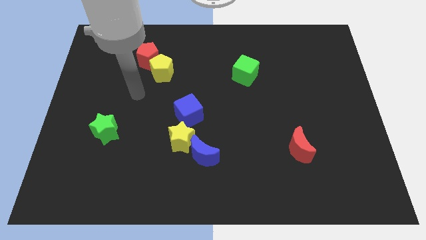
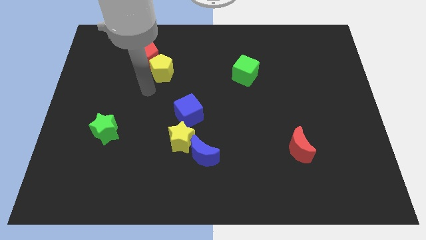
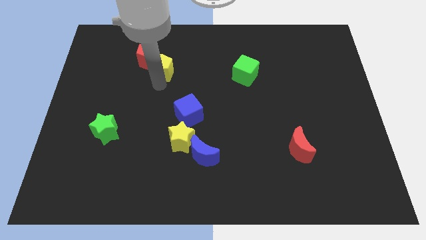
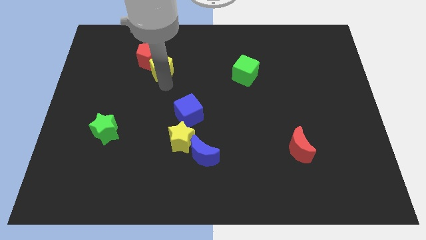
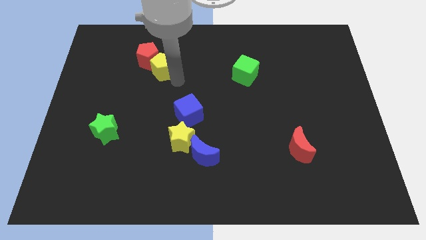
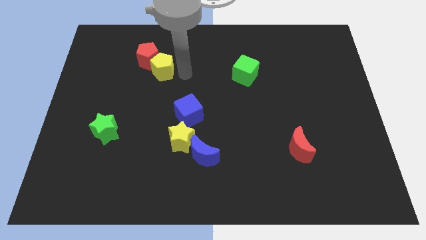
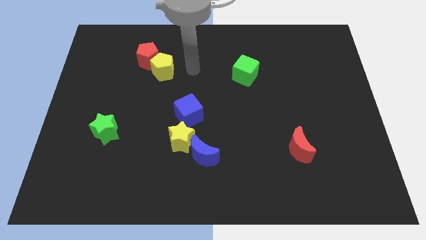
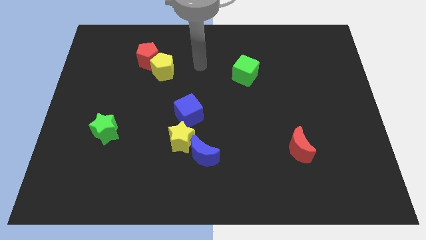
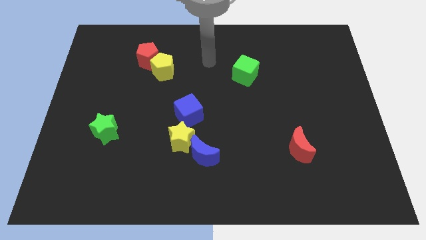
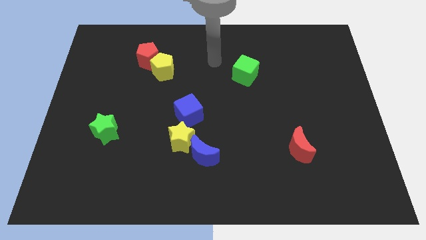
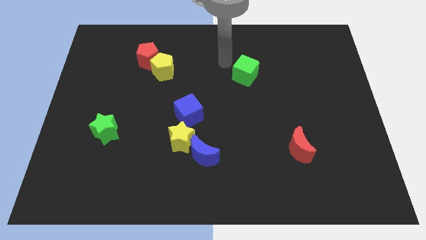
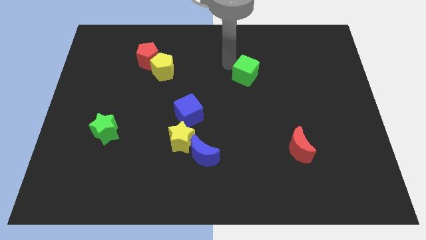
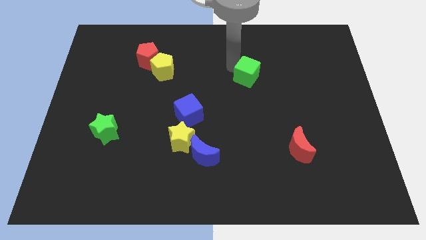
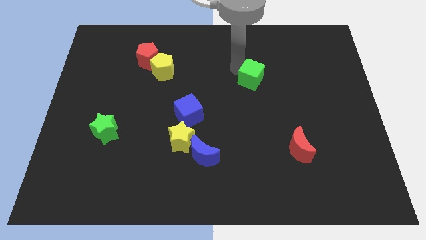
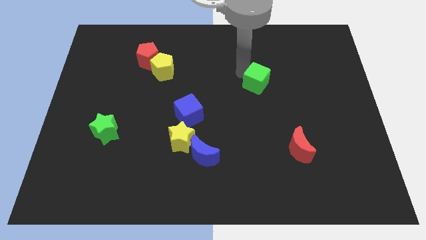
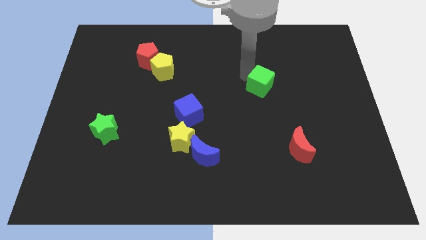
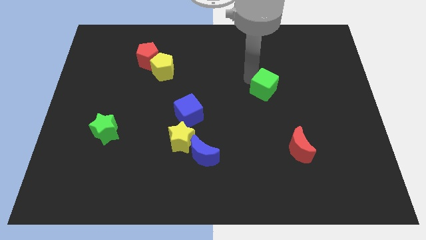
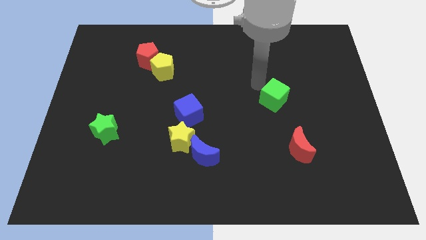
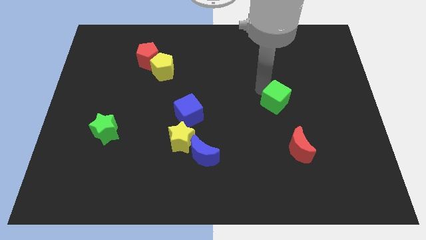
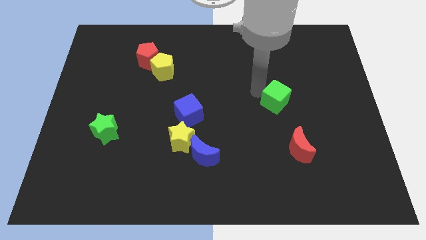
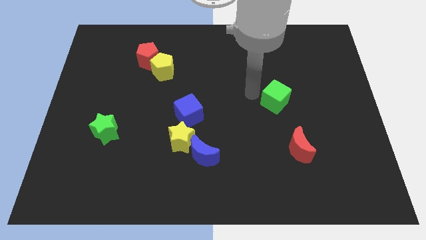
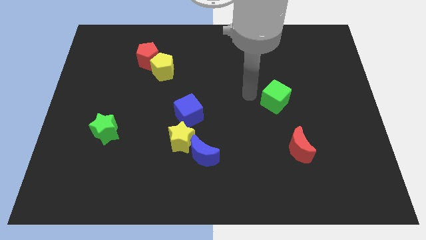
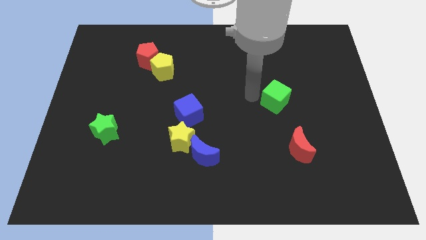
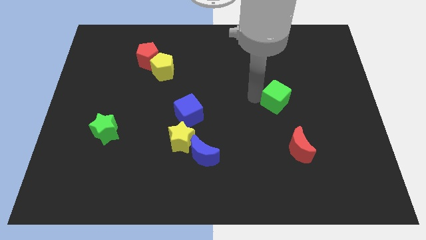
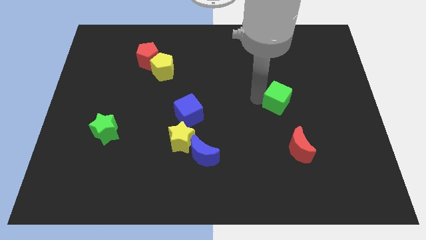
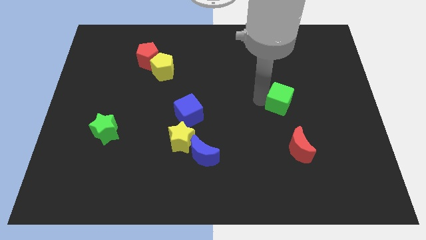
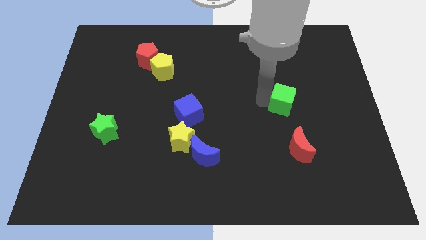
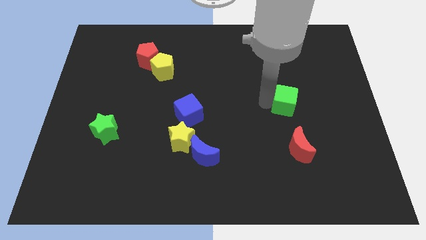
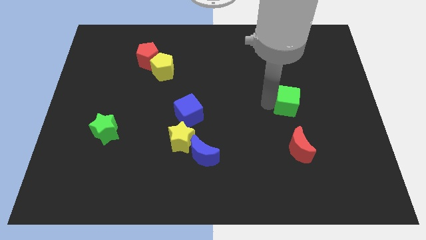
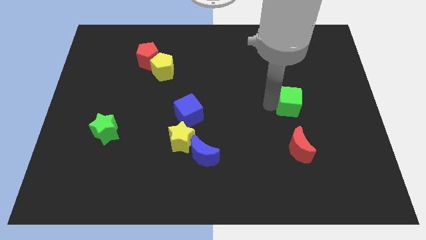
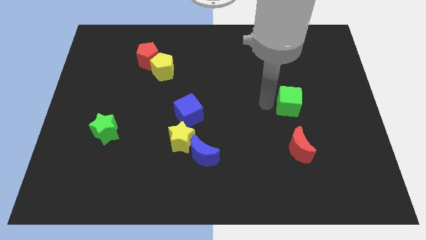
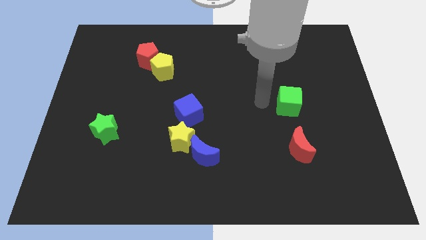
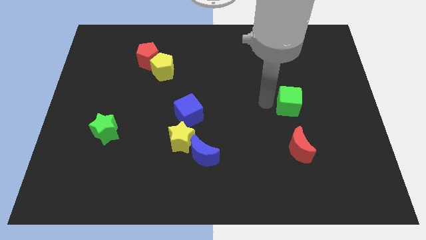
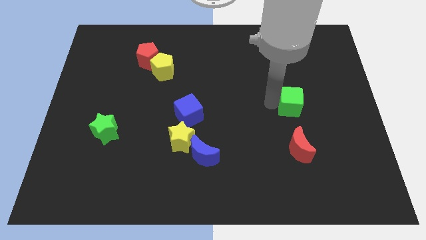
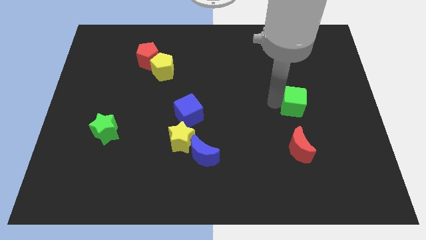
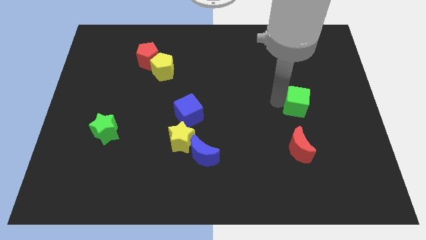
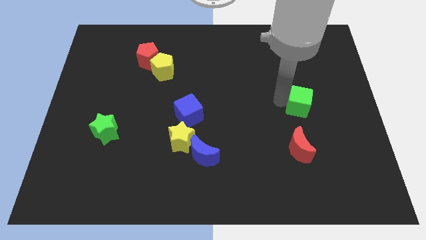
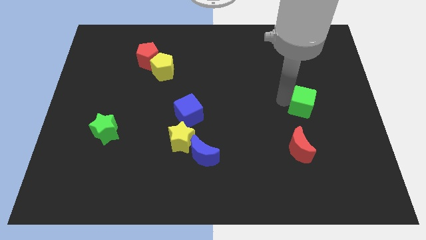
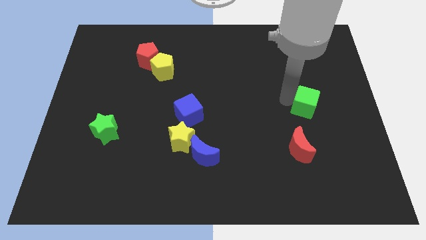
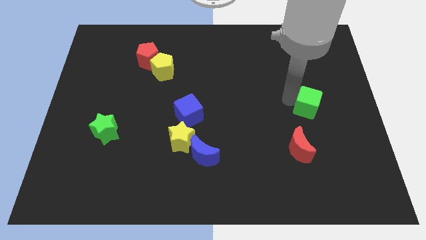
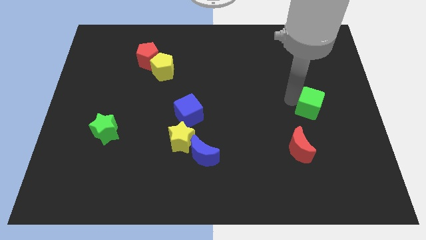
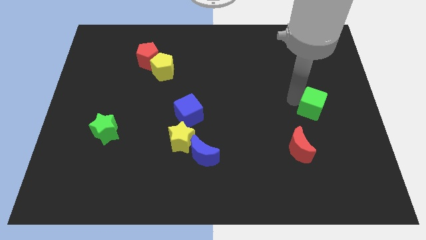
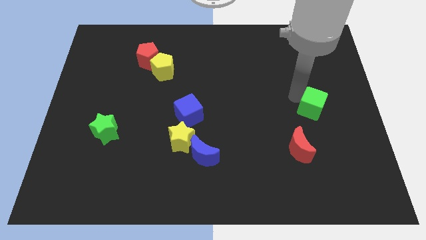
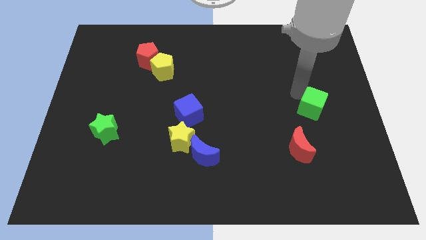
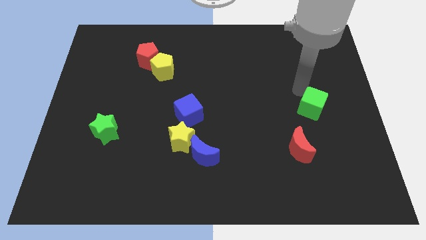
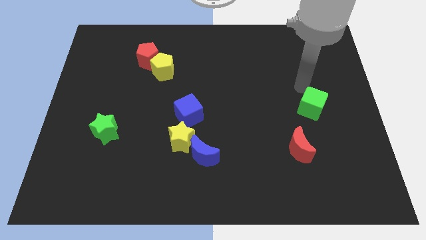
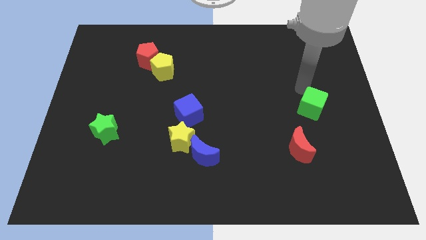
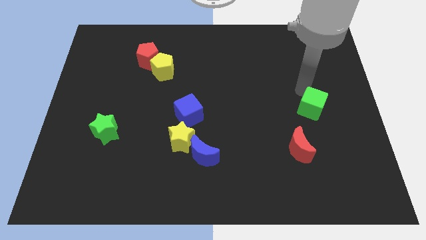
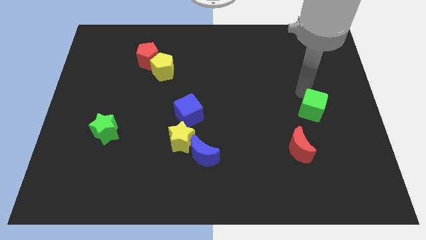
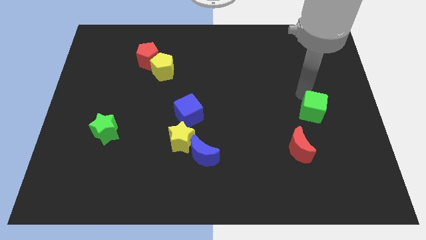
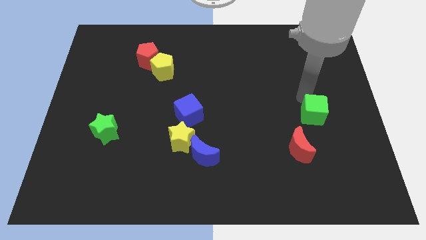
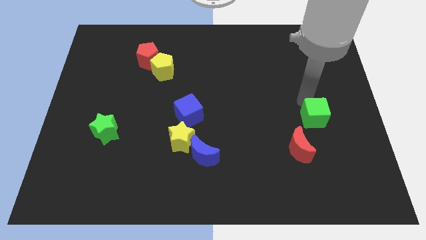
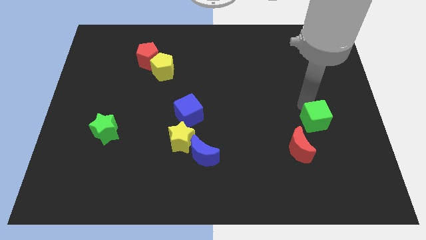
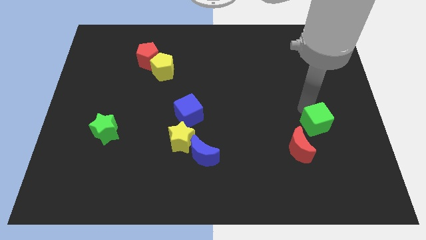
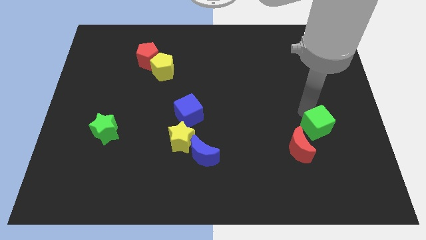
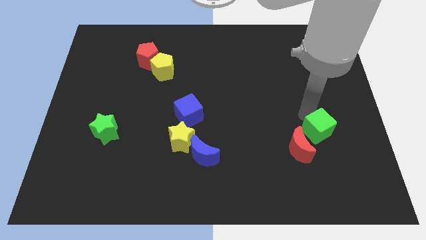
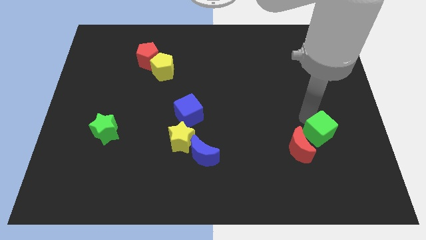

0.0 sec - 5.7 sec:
slide the green cube to the right of the red moon

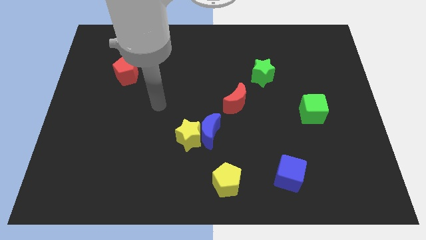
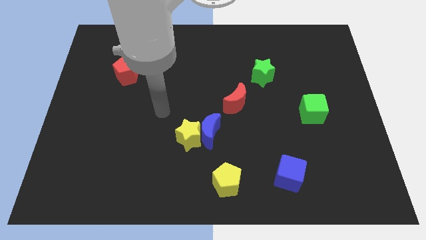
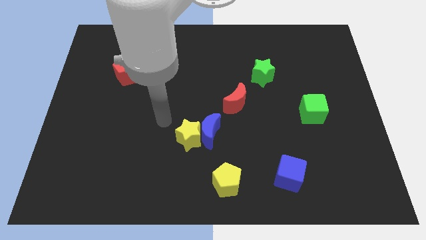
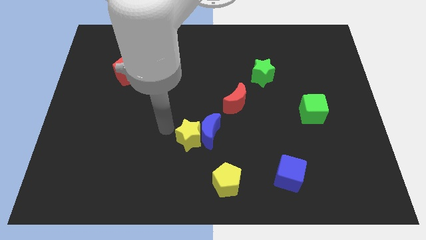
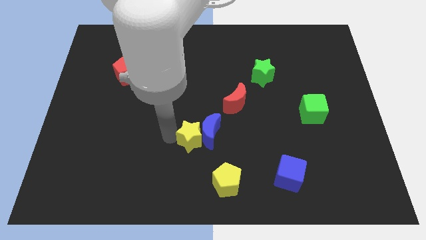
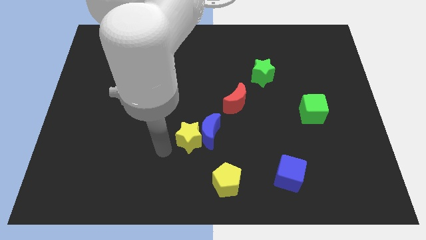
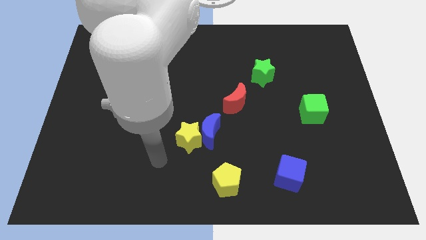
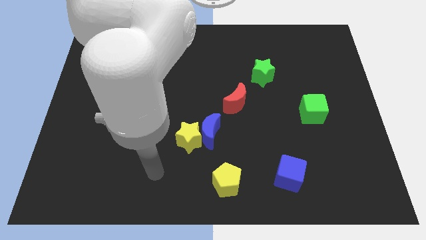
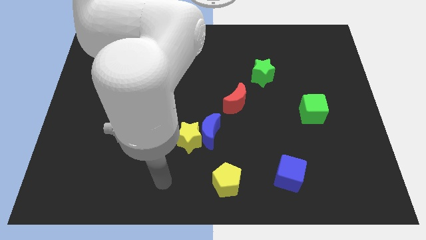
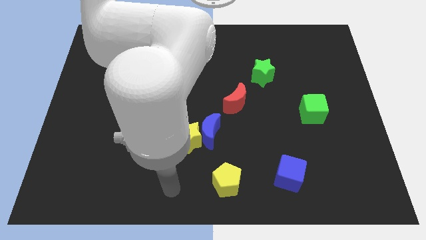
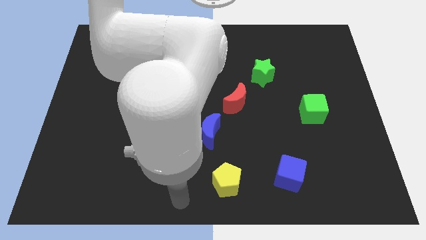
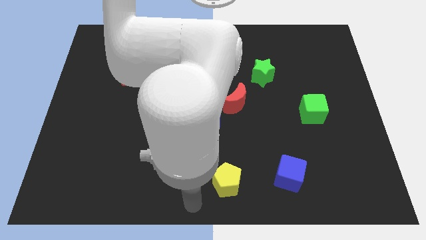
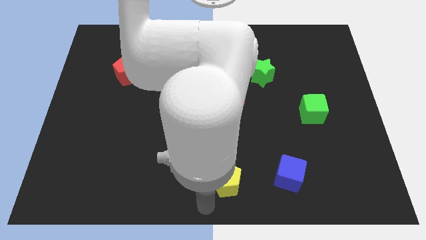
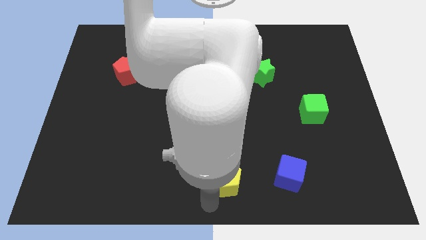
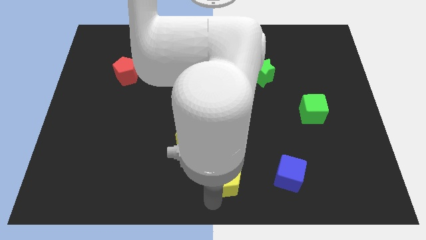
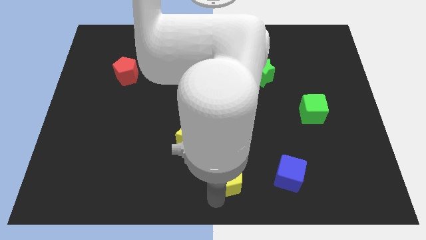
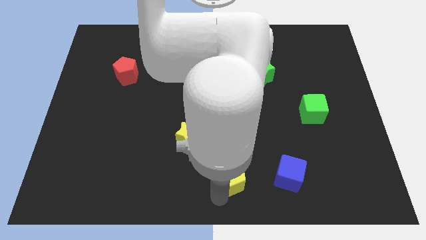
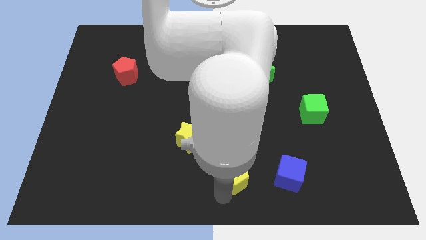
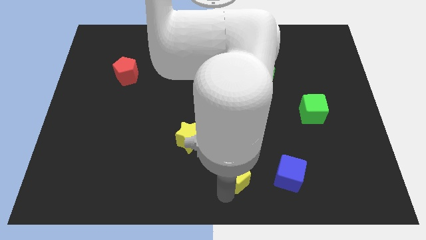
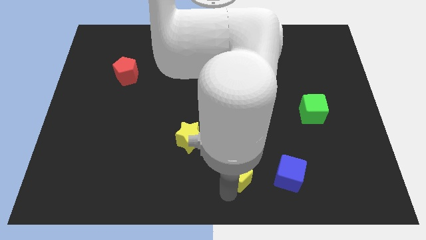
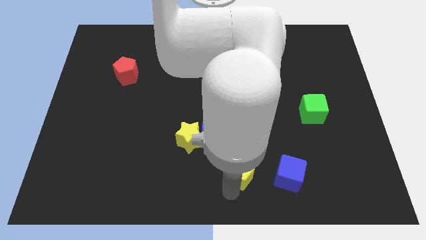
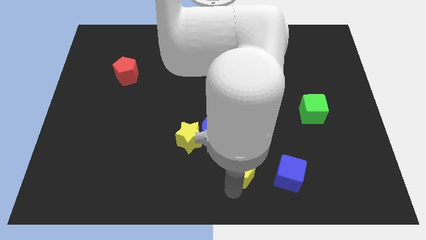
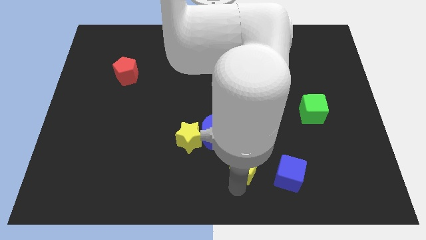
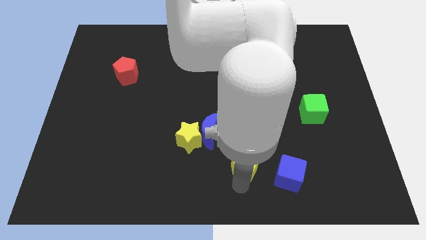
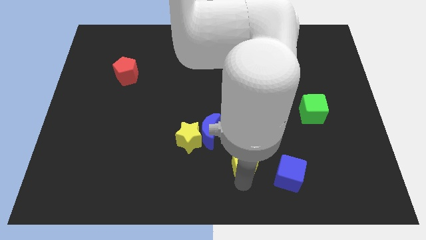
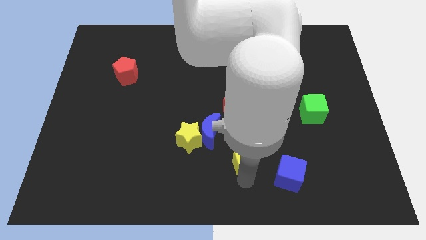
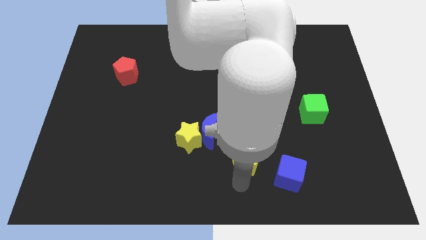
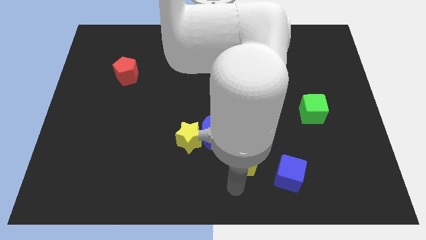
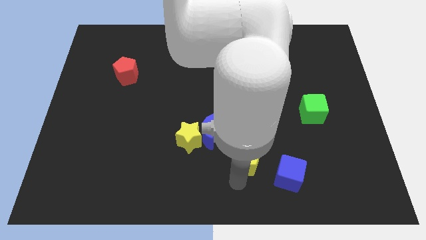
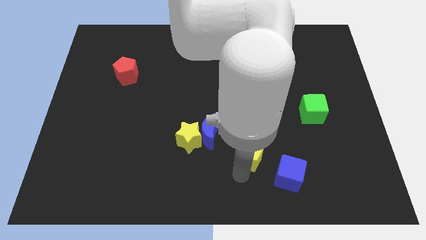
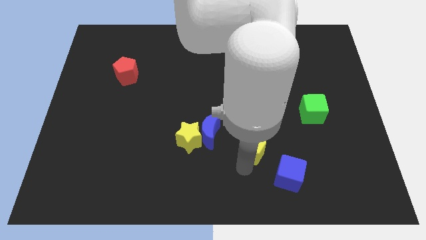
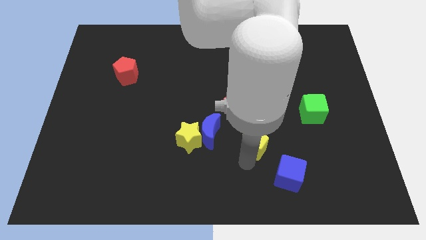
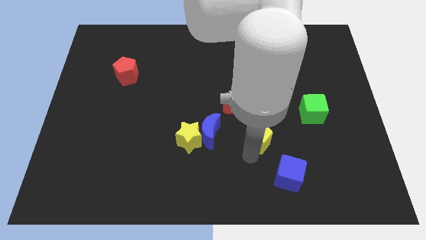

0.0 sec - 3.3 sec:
push the yellow pentagon diagonally down and to the right of the red moon
